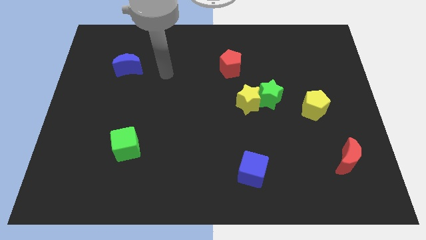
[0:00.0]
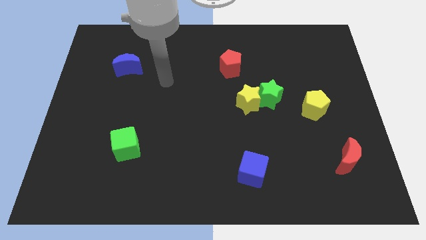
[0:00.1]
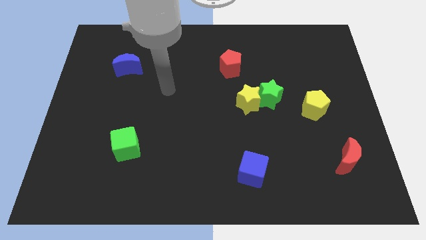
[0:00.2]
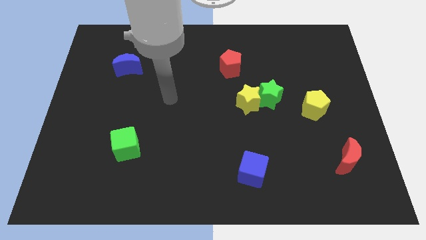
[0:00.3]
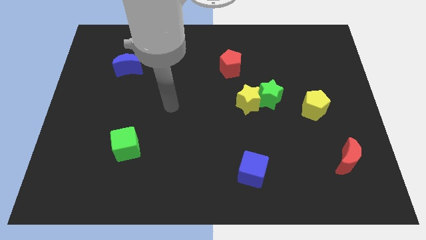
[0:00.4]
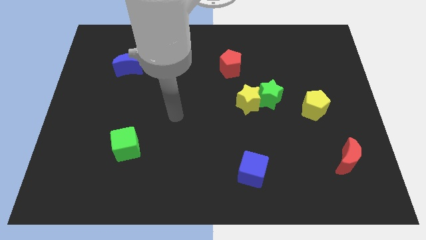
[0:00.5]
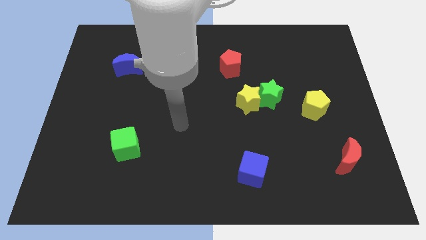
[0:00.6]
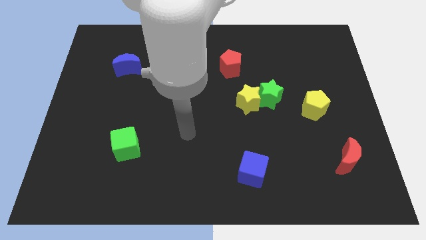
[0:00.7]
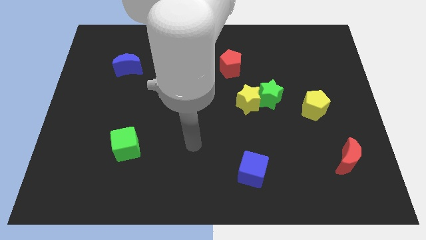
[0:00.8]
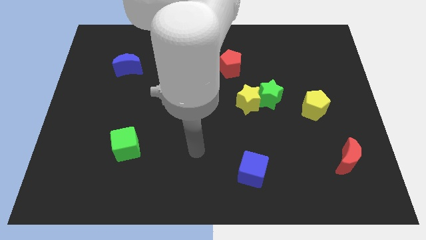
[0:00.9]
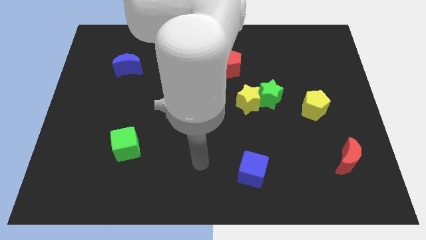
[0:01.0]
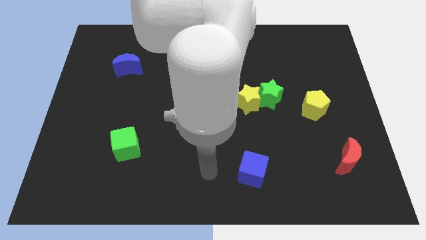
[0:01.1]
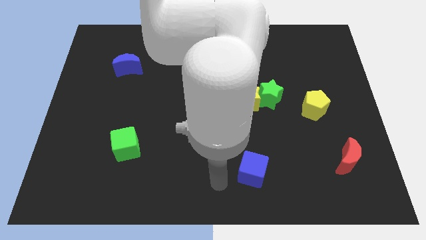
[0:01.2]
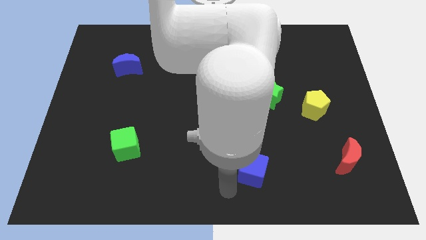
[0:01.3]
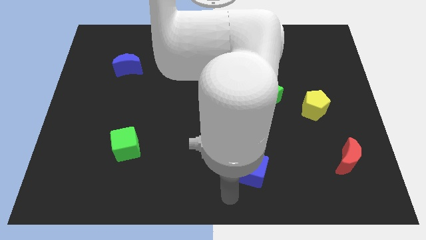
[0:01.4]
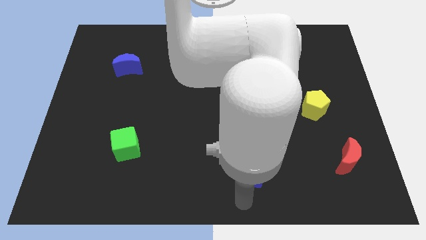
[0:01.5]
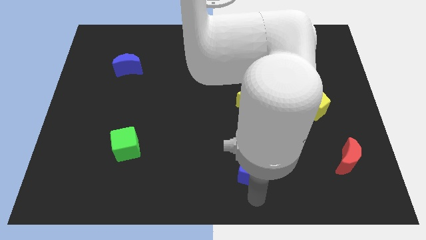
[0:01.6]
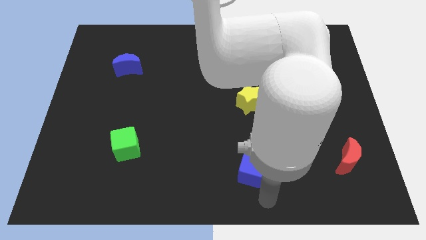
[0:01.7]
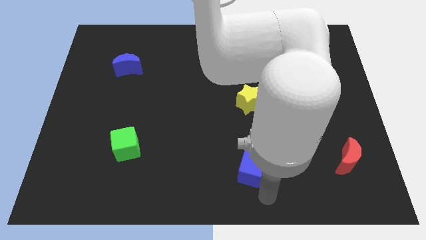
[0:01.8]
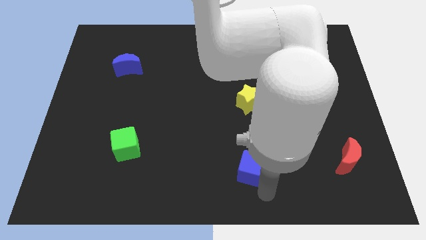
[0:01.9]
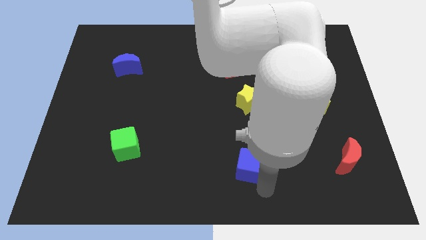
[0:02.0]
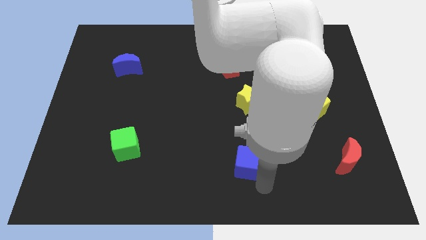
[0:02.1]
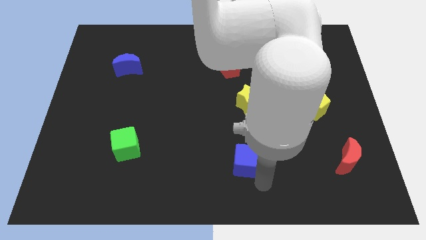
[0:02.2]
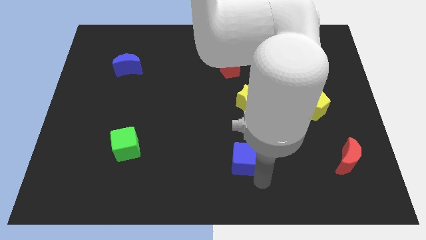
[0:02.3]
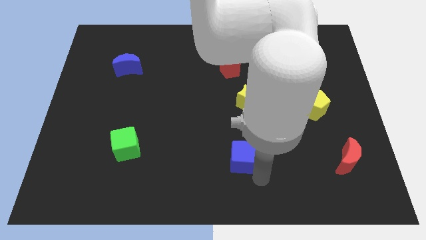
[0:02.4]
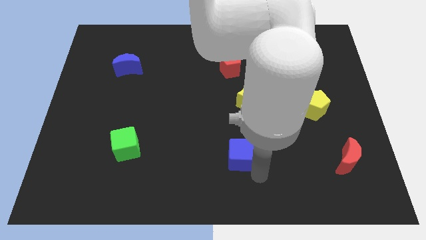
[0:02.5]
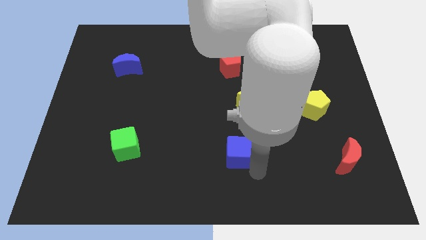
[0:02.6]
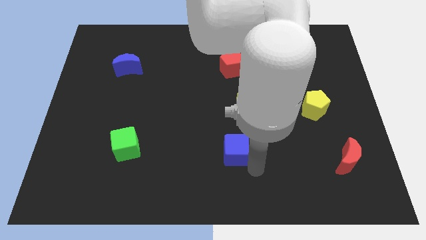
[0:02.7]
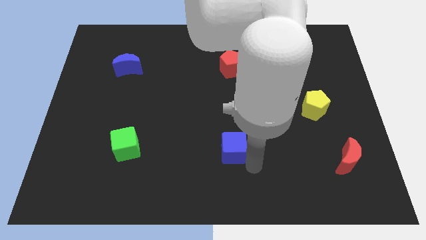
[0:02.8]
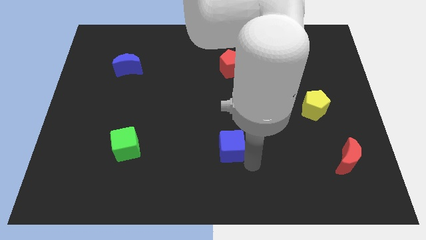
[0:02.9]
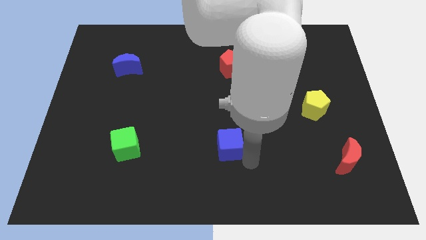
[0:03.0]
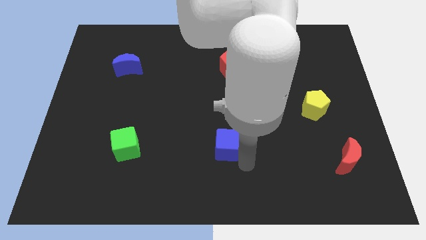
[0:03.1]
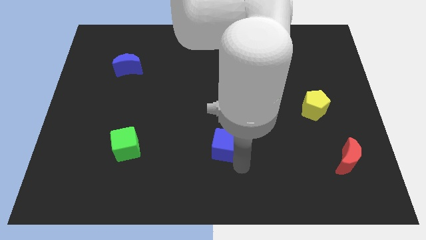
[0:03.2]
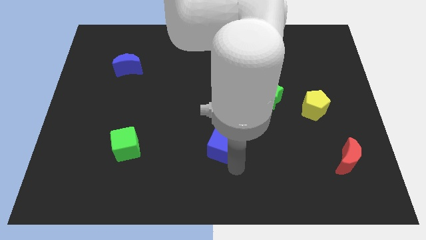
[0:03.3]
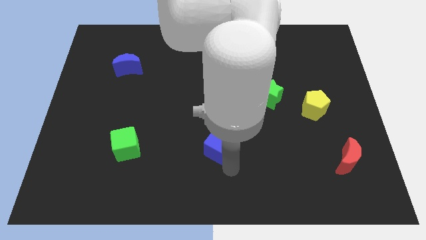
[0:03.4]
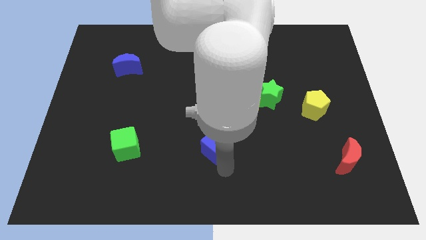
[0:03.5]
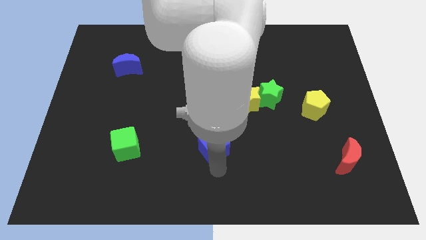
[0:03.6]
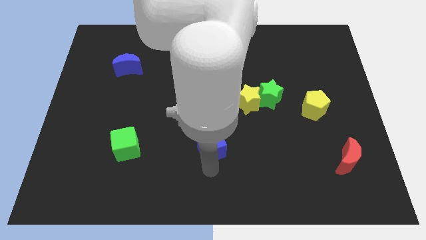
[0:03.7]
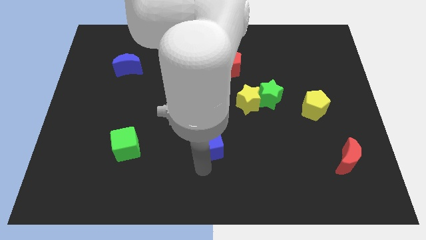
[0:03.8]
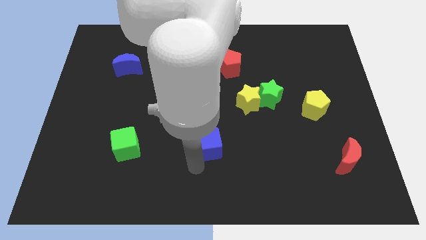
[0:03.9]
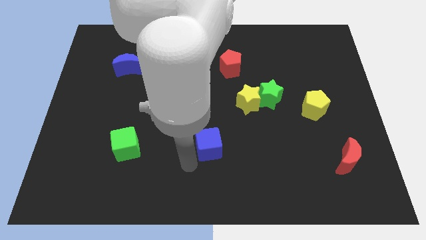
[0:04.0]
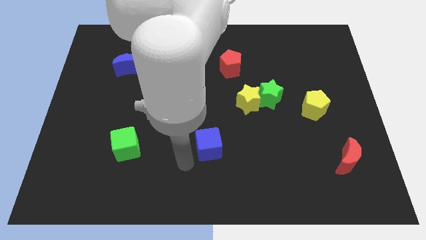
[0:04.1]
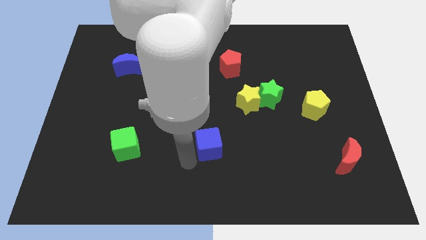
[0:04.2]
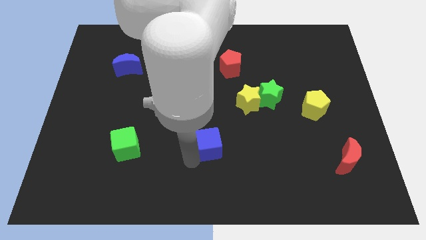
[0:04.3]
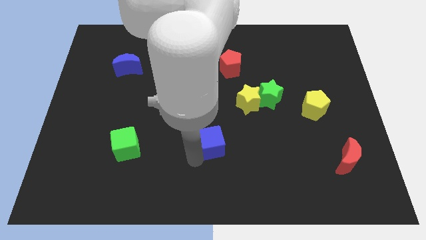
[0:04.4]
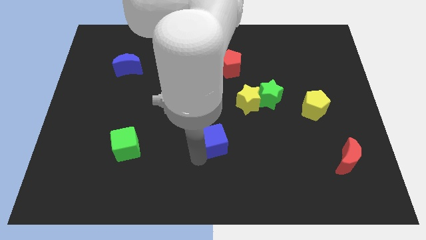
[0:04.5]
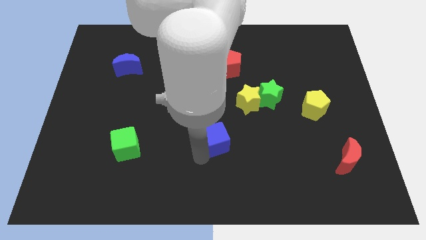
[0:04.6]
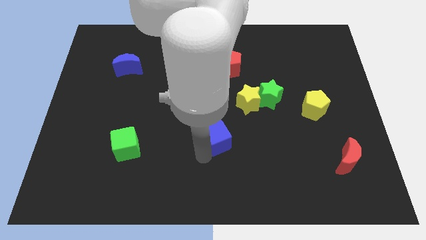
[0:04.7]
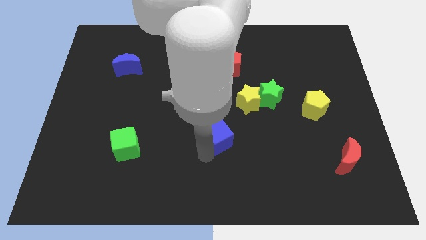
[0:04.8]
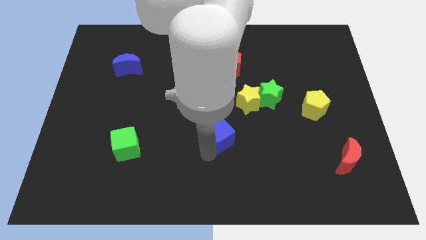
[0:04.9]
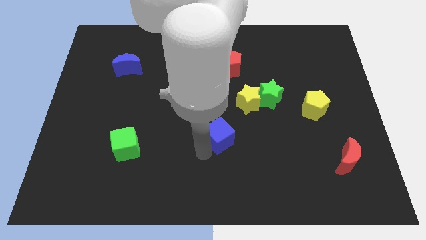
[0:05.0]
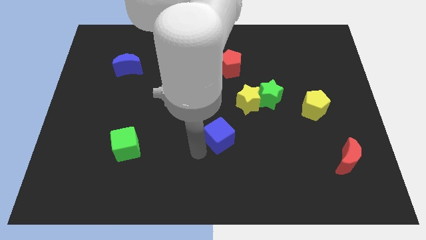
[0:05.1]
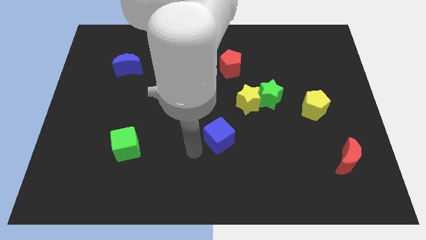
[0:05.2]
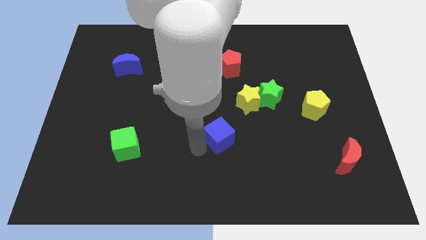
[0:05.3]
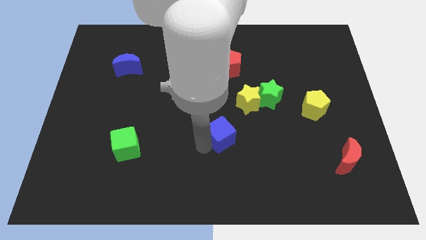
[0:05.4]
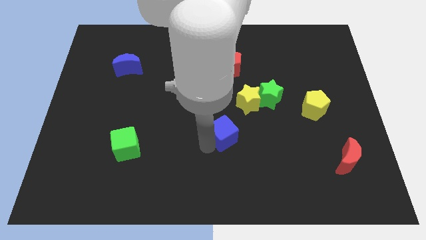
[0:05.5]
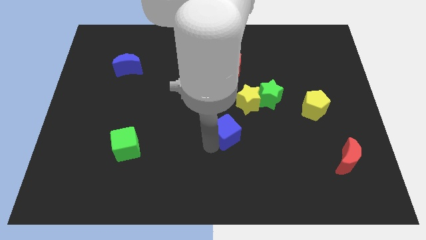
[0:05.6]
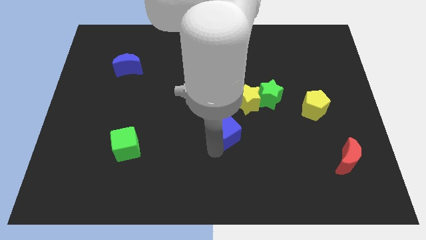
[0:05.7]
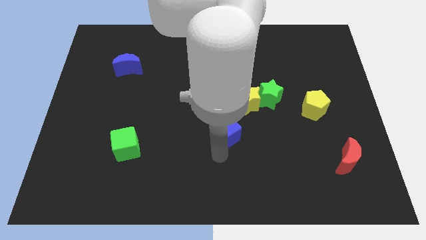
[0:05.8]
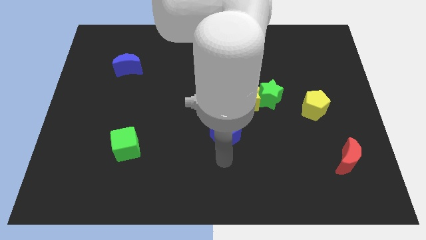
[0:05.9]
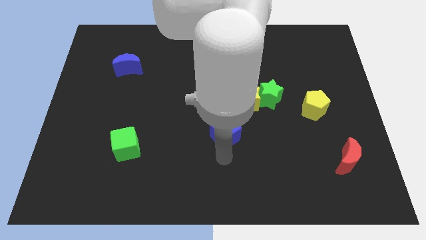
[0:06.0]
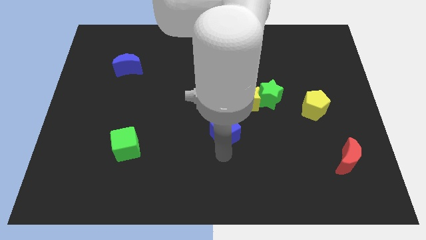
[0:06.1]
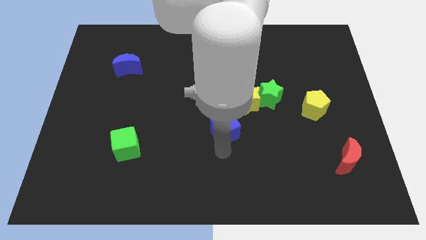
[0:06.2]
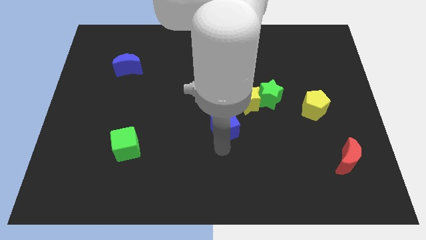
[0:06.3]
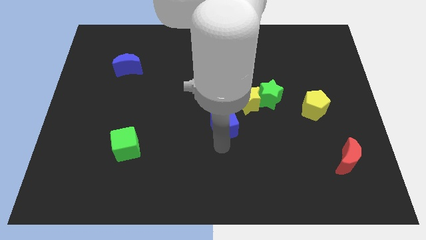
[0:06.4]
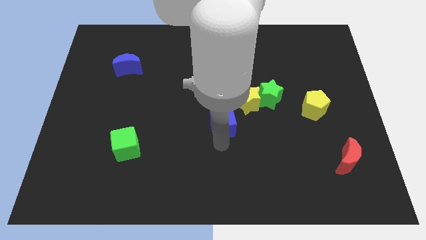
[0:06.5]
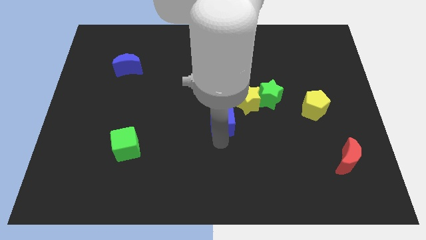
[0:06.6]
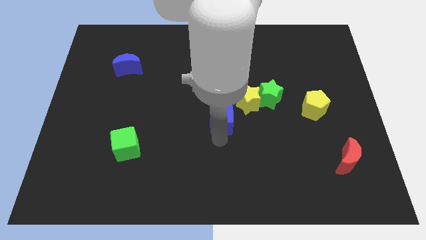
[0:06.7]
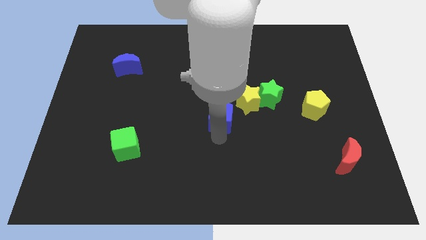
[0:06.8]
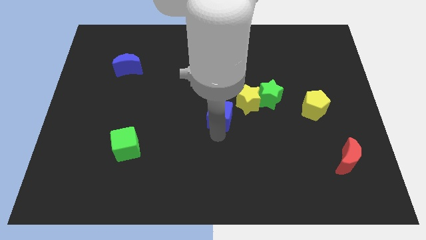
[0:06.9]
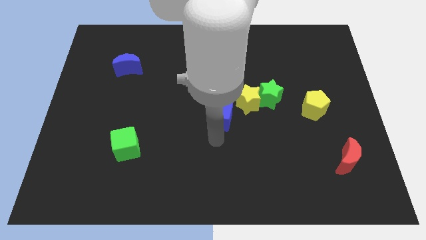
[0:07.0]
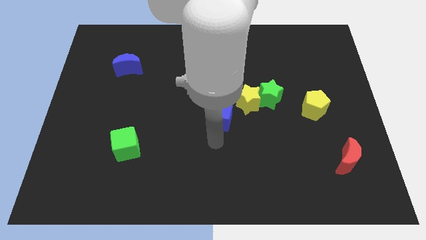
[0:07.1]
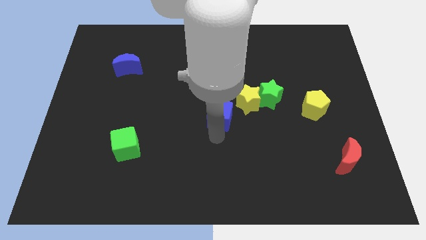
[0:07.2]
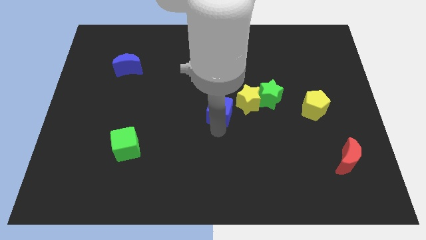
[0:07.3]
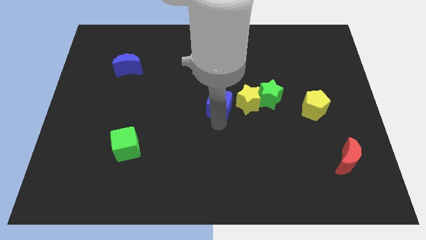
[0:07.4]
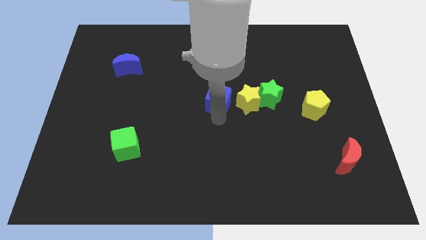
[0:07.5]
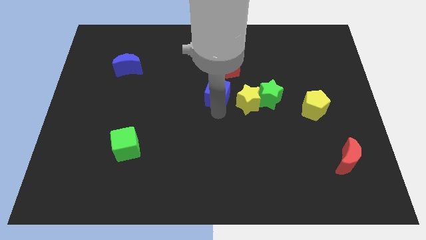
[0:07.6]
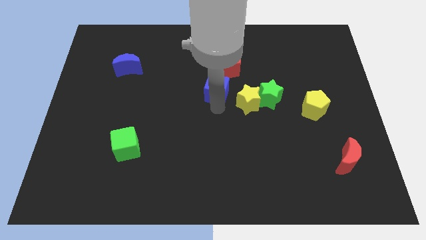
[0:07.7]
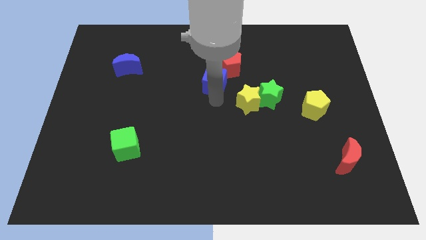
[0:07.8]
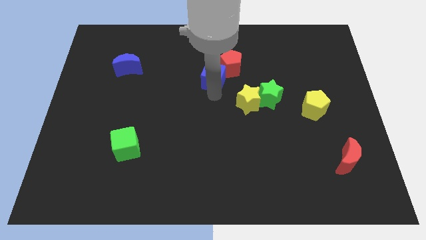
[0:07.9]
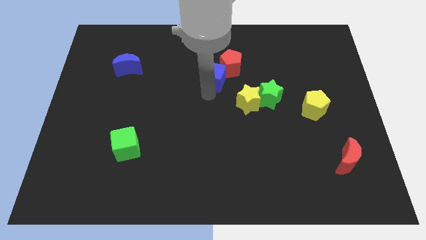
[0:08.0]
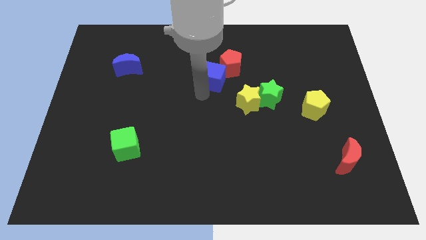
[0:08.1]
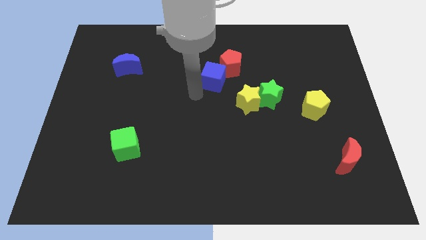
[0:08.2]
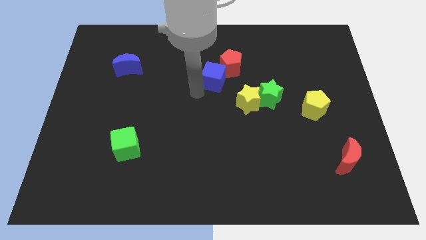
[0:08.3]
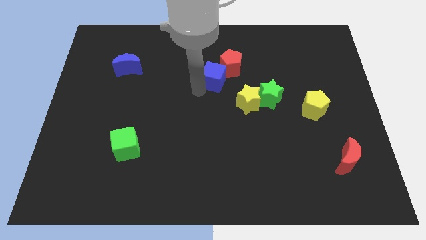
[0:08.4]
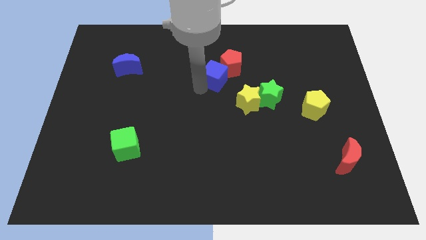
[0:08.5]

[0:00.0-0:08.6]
push the blue cube close to the red pentagon
